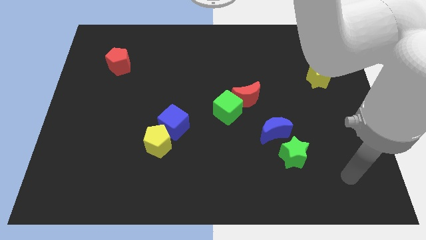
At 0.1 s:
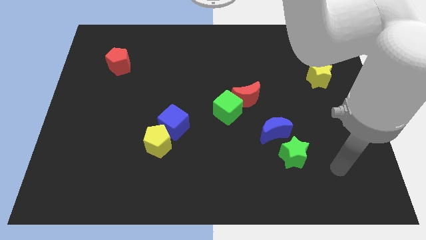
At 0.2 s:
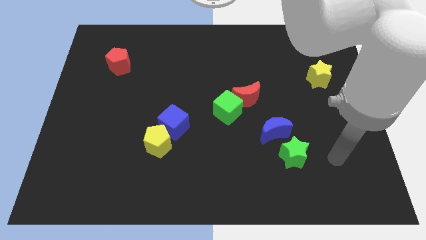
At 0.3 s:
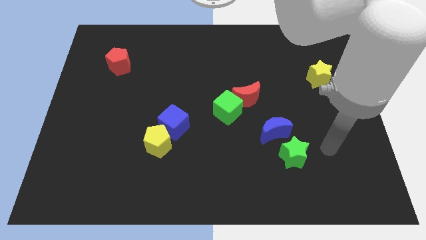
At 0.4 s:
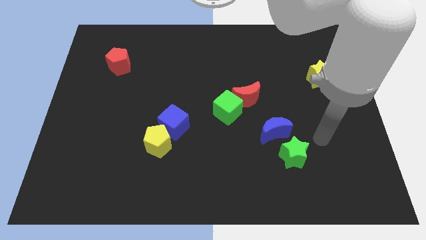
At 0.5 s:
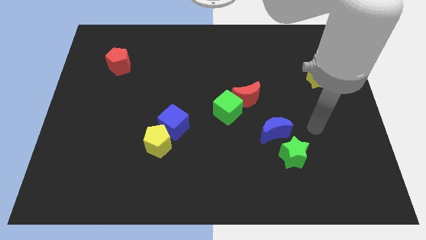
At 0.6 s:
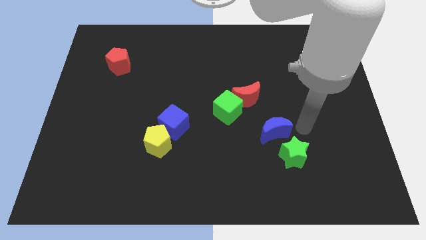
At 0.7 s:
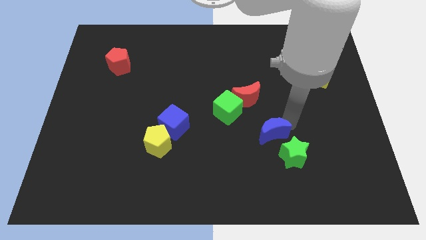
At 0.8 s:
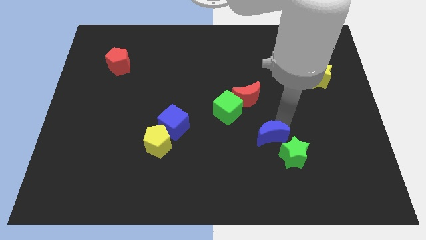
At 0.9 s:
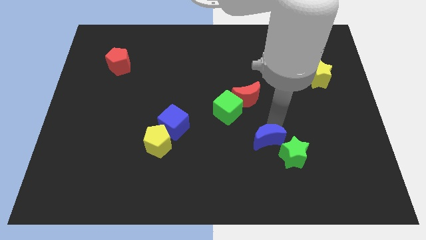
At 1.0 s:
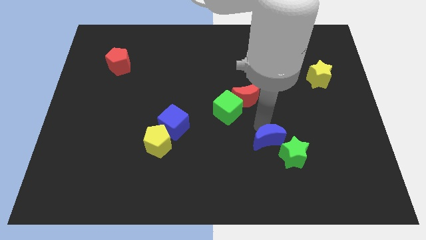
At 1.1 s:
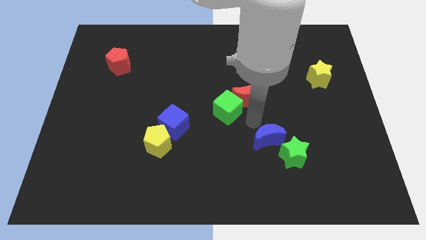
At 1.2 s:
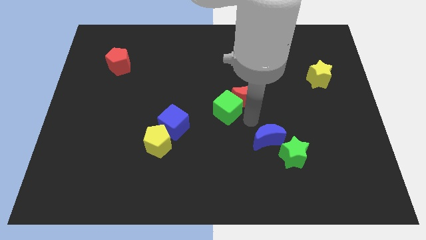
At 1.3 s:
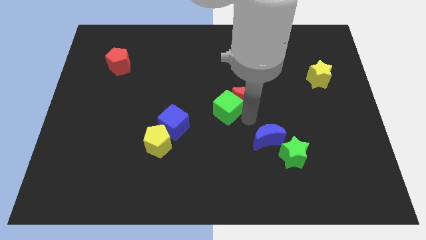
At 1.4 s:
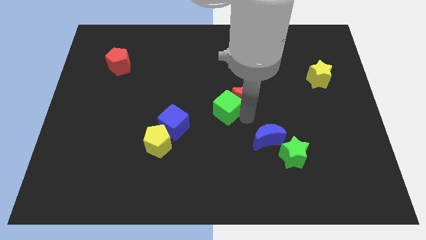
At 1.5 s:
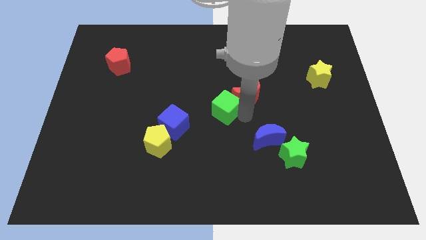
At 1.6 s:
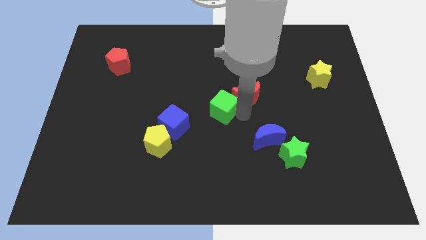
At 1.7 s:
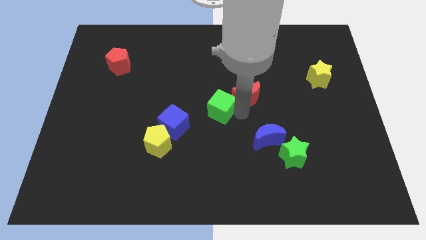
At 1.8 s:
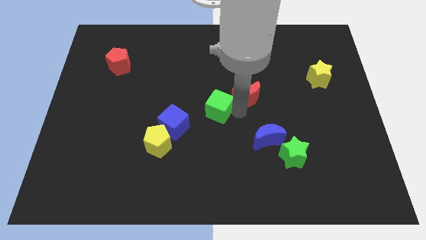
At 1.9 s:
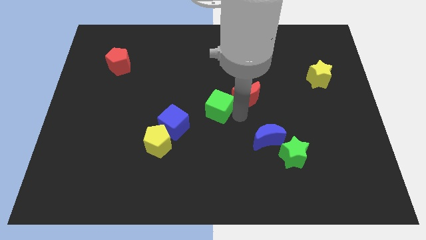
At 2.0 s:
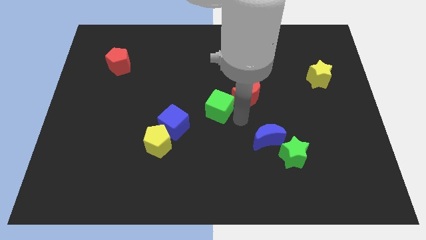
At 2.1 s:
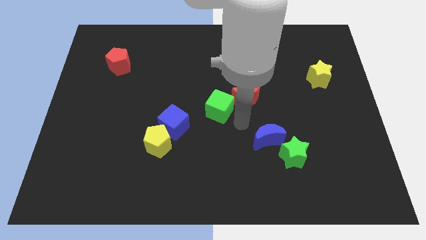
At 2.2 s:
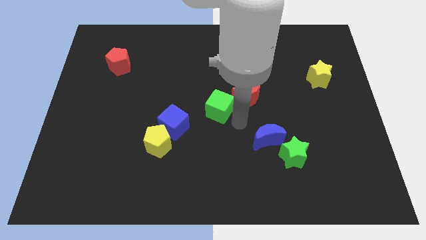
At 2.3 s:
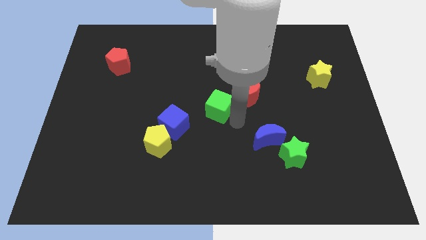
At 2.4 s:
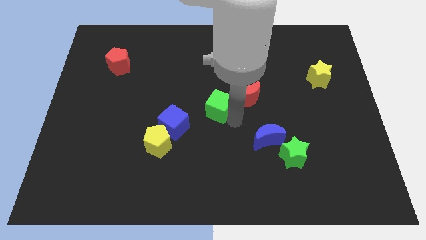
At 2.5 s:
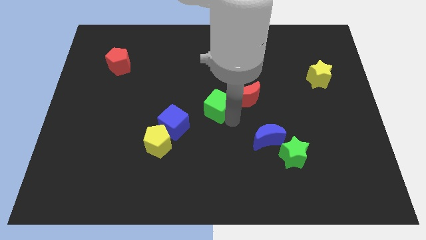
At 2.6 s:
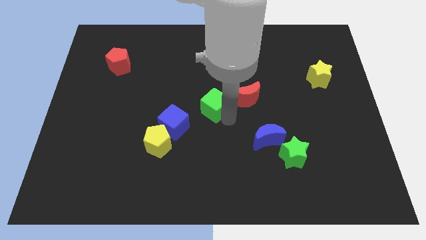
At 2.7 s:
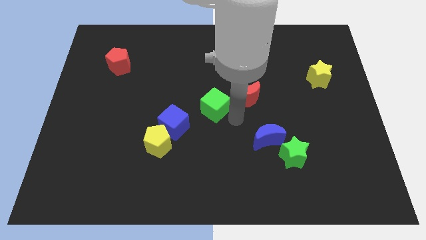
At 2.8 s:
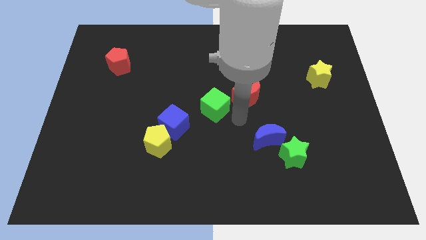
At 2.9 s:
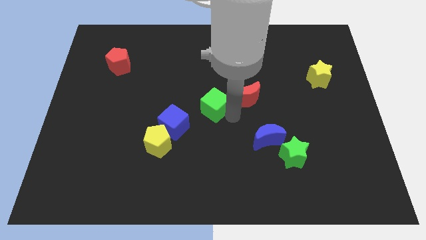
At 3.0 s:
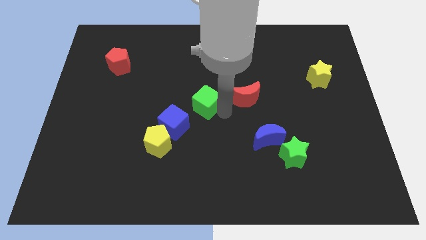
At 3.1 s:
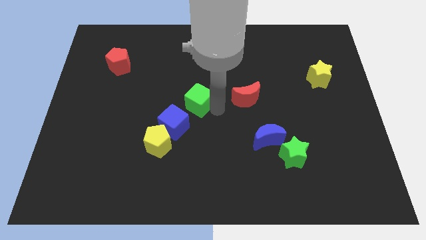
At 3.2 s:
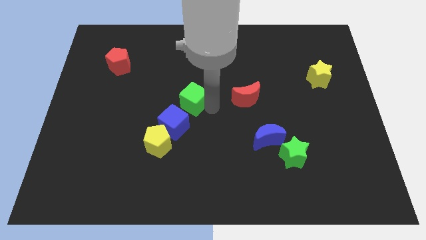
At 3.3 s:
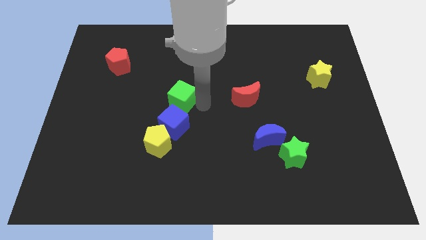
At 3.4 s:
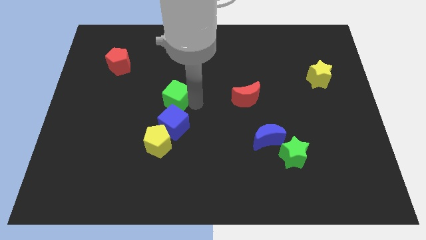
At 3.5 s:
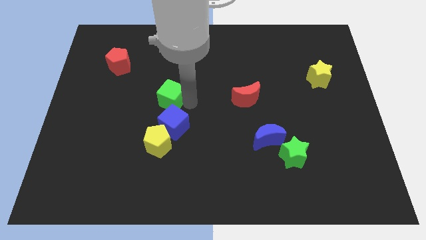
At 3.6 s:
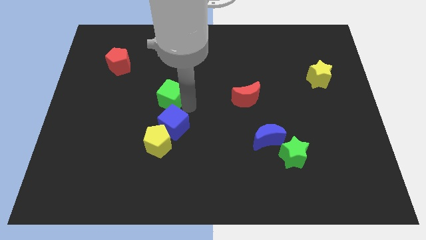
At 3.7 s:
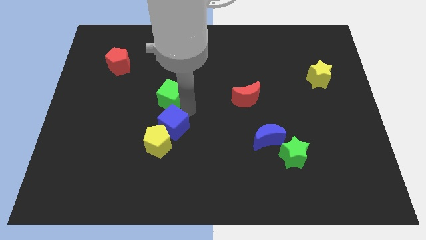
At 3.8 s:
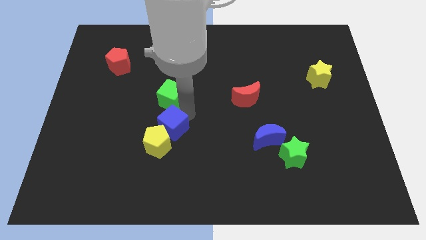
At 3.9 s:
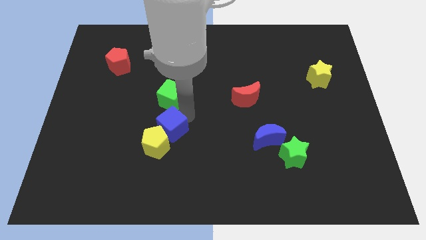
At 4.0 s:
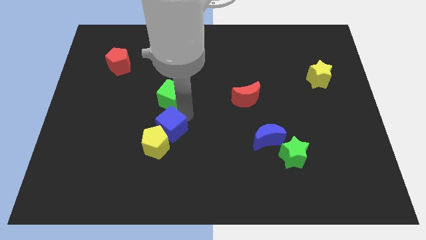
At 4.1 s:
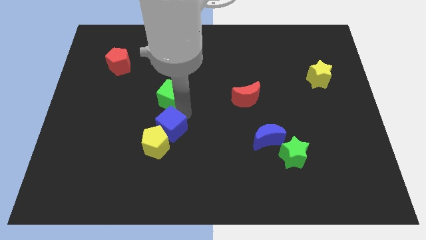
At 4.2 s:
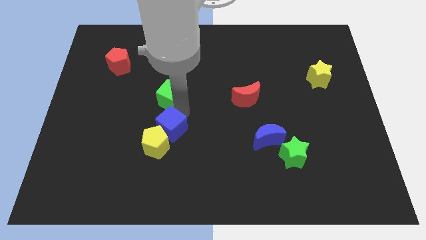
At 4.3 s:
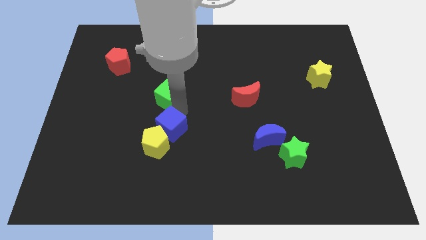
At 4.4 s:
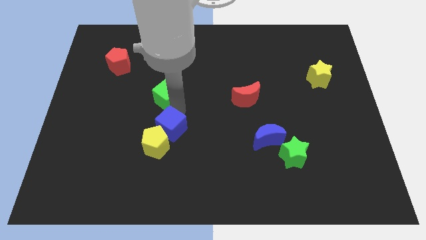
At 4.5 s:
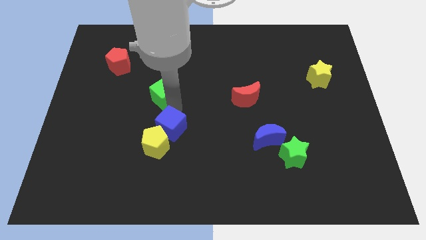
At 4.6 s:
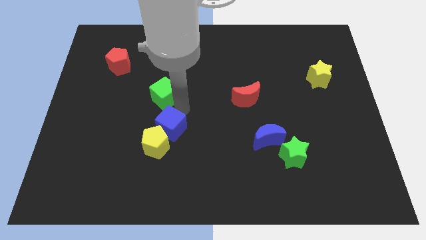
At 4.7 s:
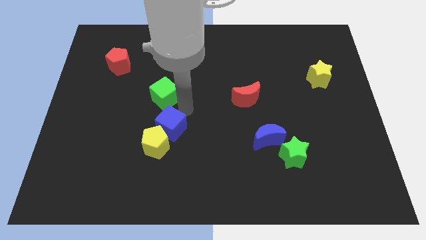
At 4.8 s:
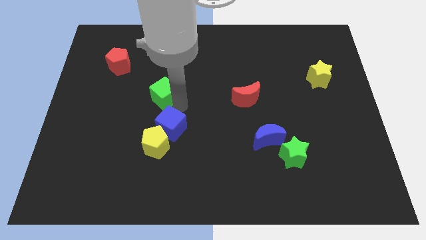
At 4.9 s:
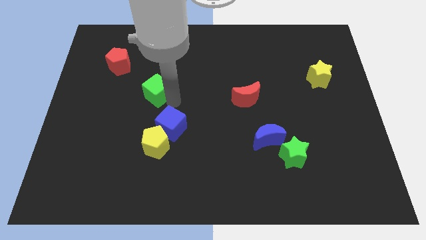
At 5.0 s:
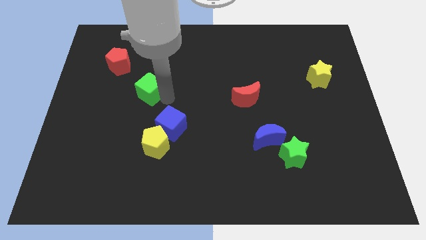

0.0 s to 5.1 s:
move the green cube to the bottom right of the red pentagon

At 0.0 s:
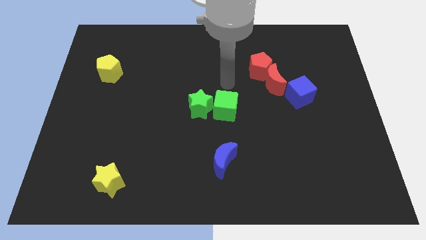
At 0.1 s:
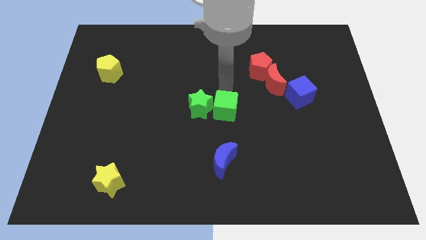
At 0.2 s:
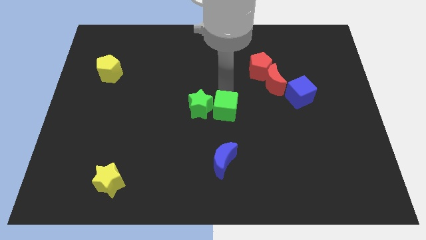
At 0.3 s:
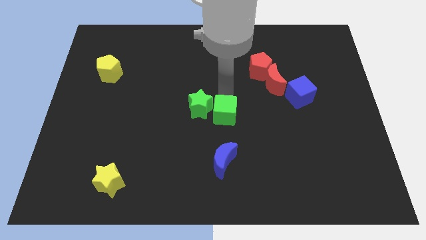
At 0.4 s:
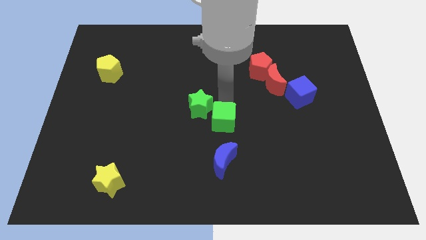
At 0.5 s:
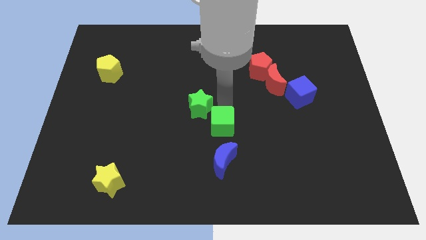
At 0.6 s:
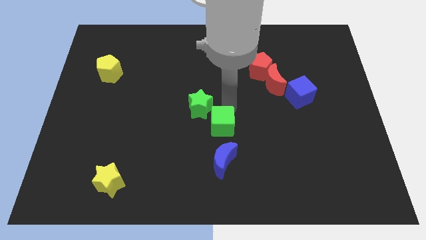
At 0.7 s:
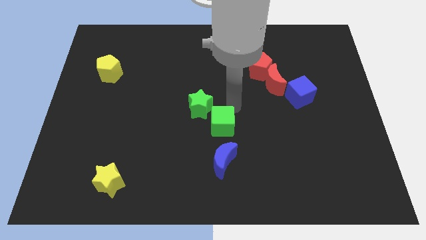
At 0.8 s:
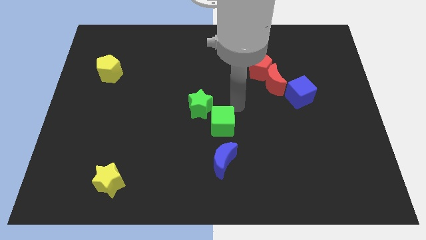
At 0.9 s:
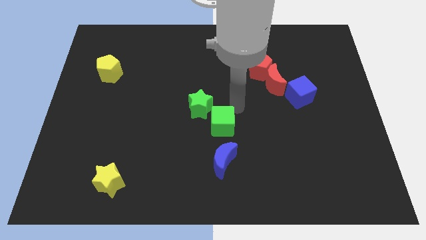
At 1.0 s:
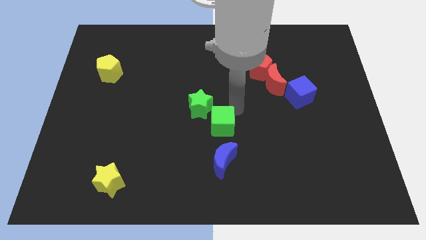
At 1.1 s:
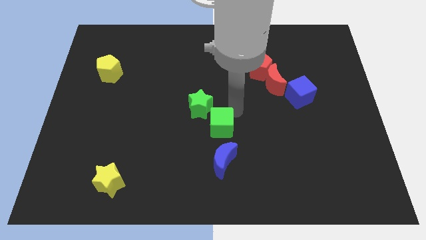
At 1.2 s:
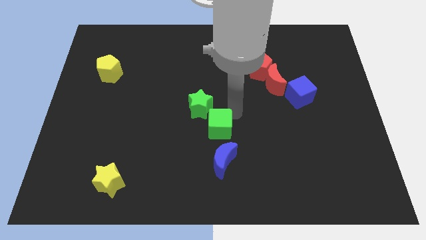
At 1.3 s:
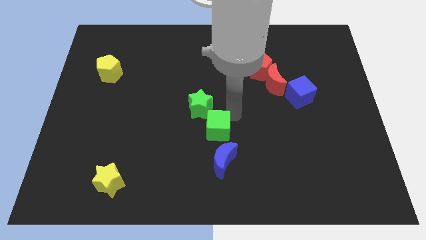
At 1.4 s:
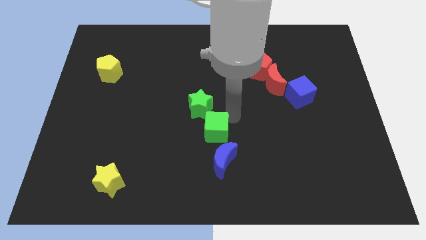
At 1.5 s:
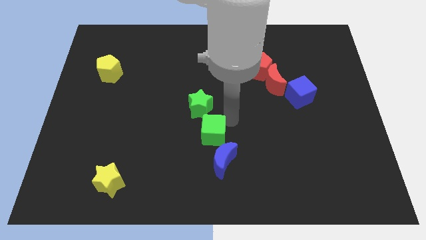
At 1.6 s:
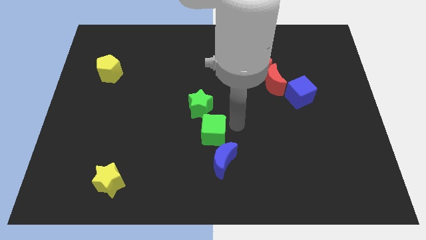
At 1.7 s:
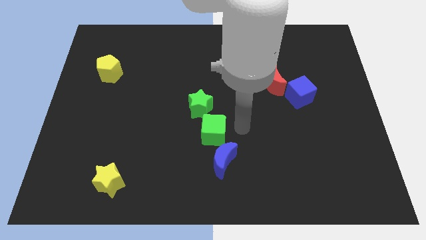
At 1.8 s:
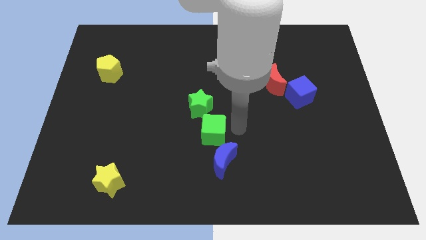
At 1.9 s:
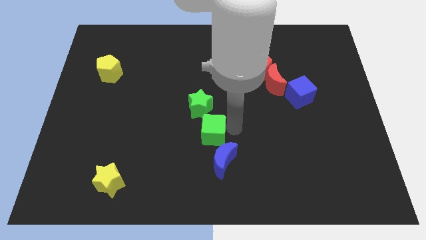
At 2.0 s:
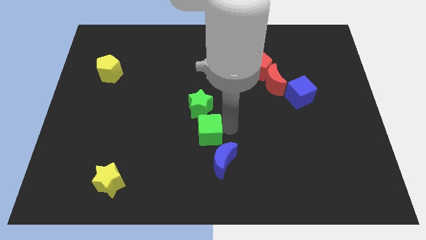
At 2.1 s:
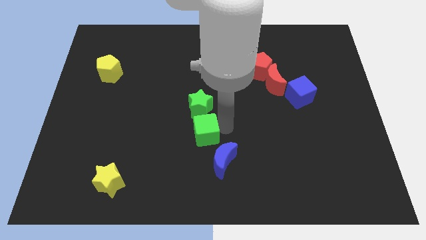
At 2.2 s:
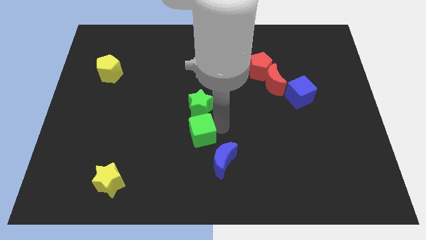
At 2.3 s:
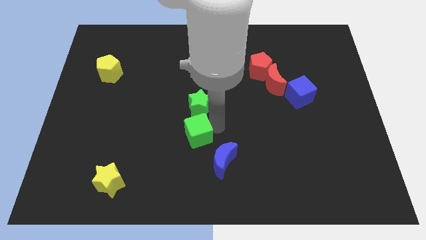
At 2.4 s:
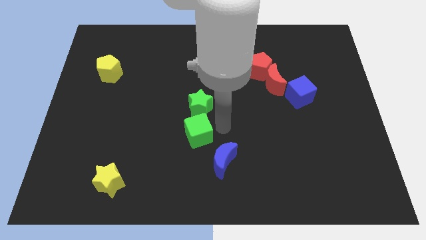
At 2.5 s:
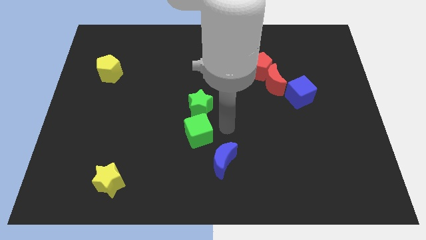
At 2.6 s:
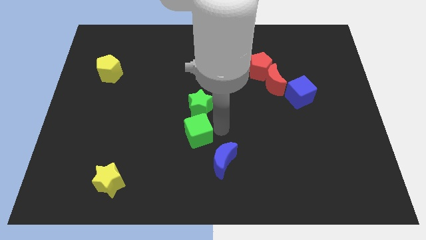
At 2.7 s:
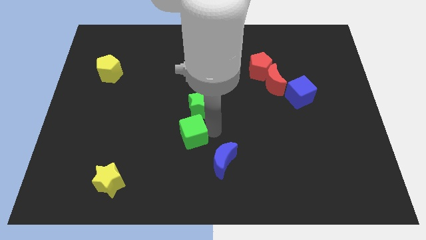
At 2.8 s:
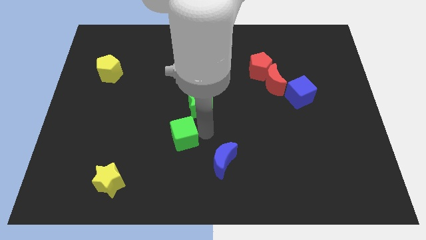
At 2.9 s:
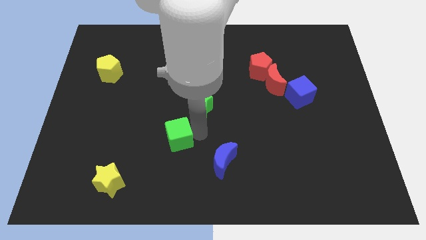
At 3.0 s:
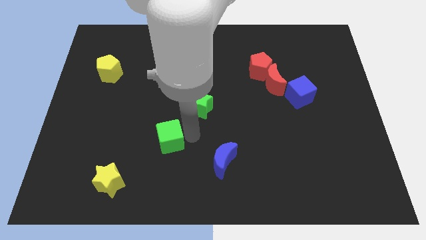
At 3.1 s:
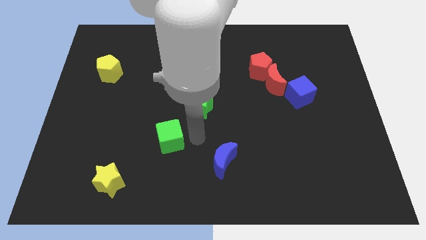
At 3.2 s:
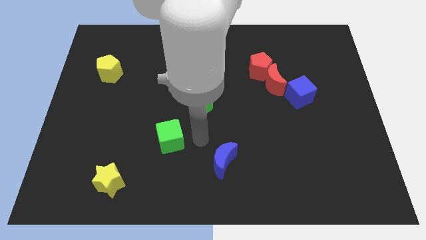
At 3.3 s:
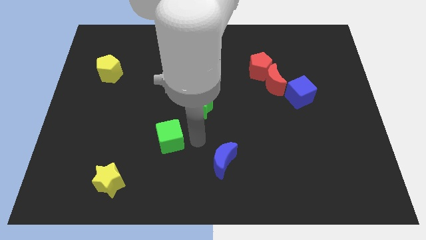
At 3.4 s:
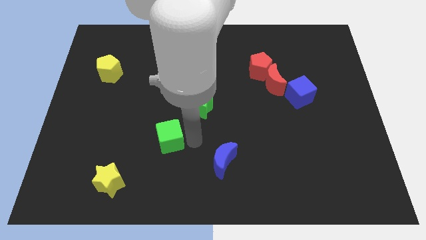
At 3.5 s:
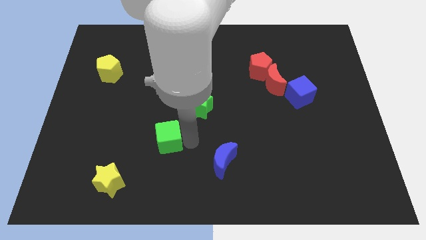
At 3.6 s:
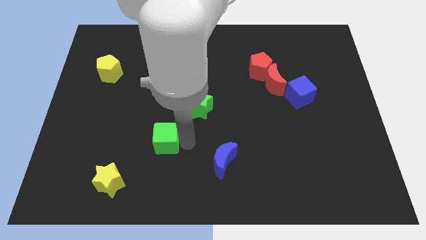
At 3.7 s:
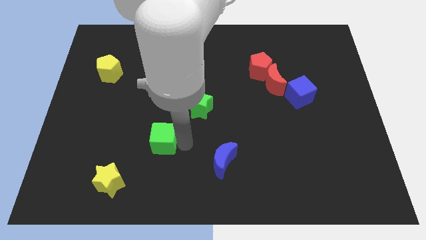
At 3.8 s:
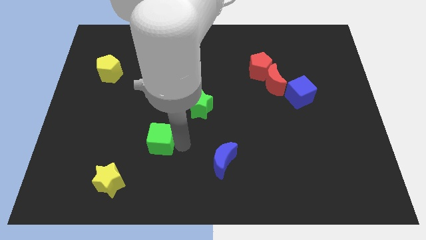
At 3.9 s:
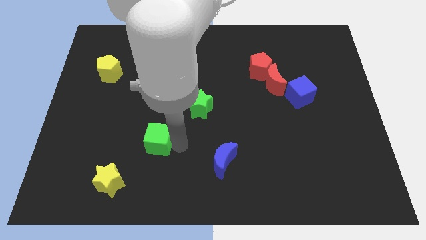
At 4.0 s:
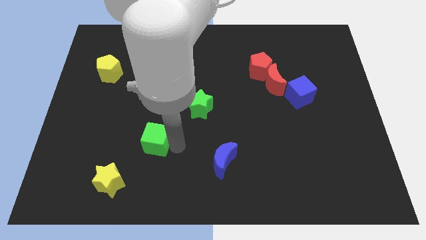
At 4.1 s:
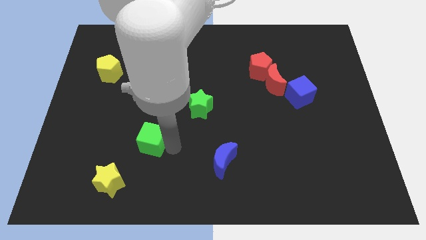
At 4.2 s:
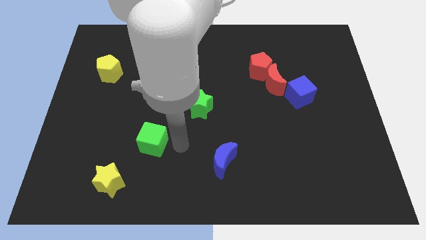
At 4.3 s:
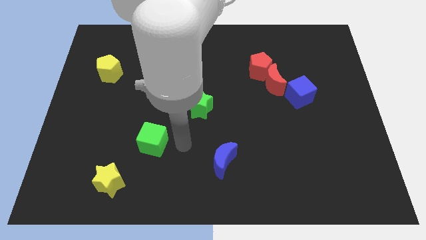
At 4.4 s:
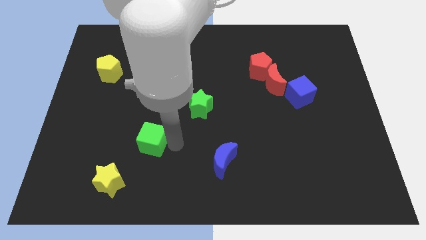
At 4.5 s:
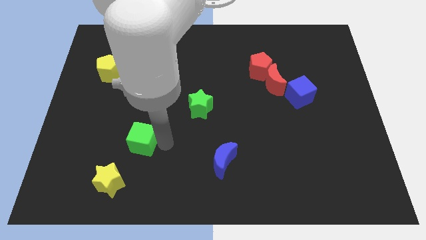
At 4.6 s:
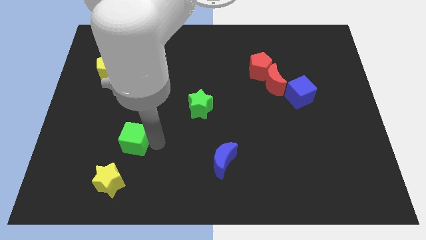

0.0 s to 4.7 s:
put the green cube to the top side of the yellow star
